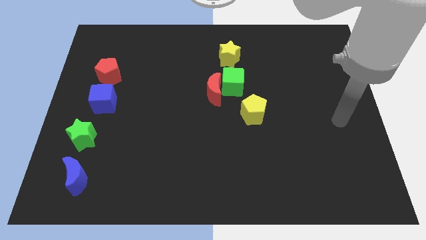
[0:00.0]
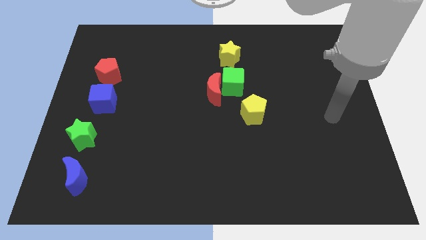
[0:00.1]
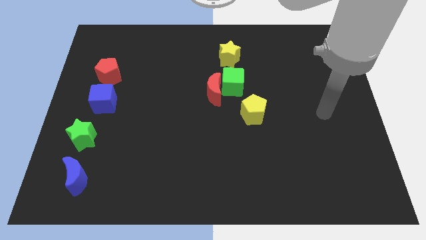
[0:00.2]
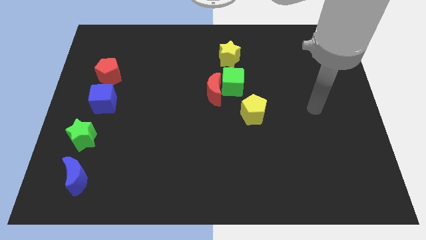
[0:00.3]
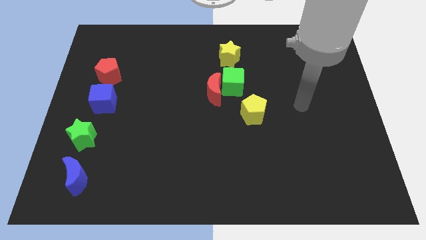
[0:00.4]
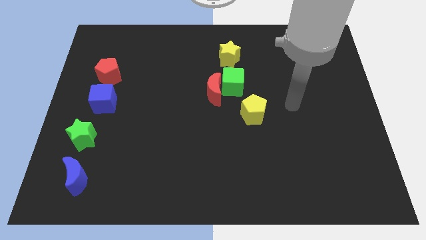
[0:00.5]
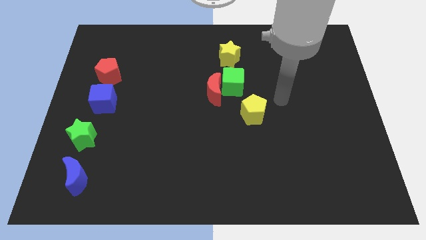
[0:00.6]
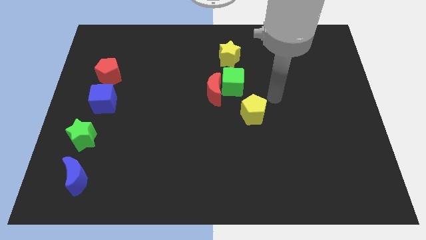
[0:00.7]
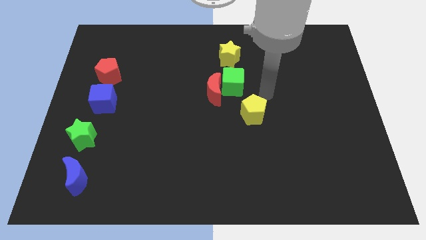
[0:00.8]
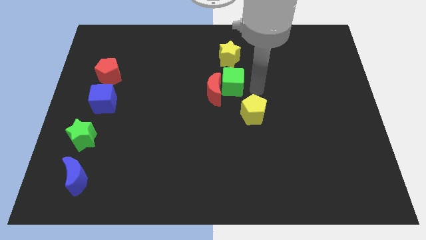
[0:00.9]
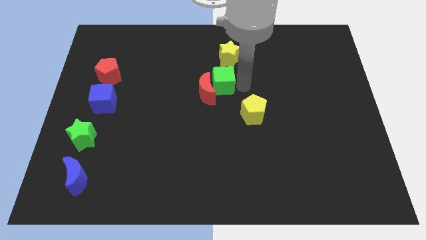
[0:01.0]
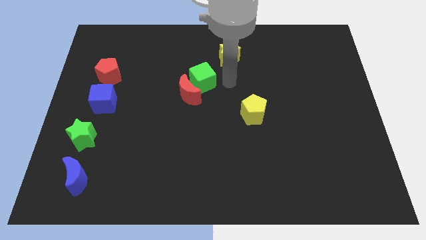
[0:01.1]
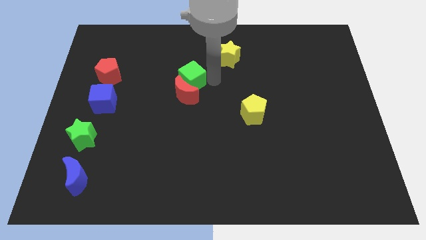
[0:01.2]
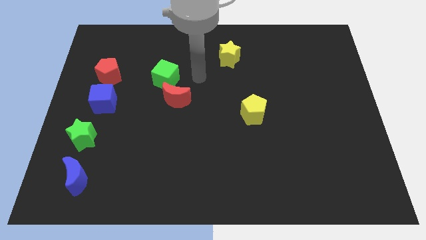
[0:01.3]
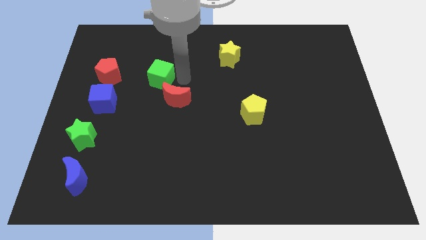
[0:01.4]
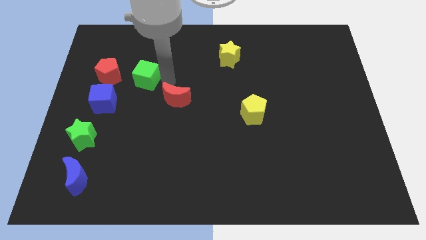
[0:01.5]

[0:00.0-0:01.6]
move the red moon away from the green cube

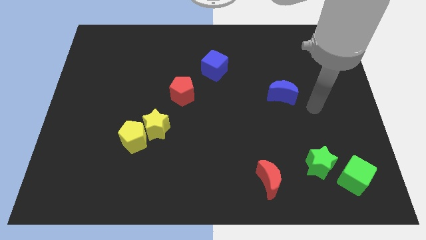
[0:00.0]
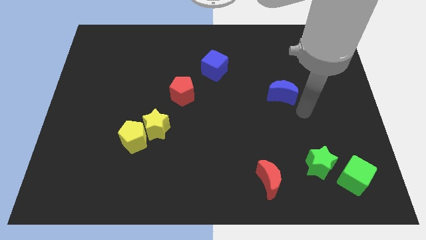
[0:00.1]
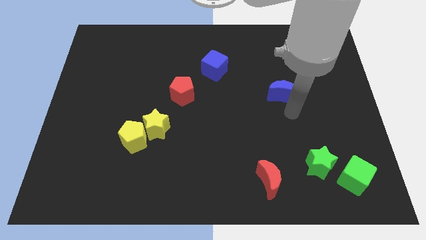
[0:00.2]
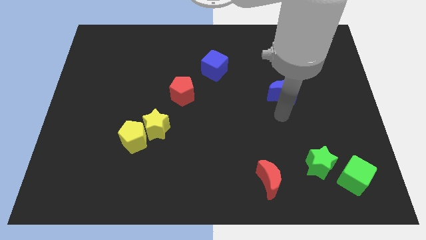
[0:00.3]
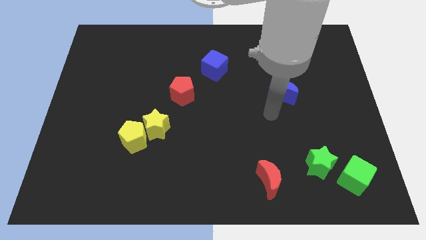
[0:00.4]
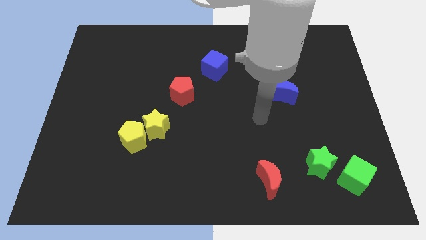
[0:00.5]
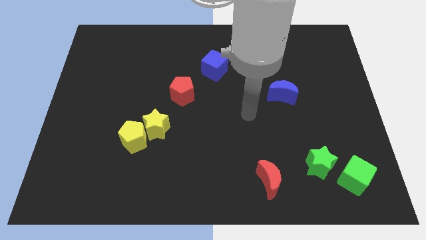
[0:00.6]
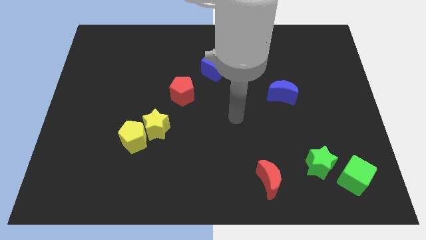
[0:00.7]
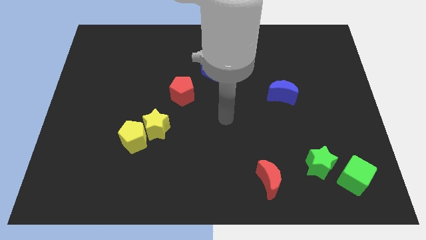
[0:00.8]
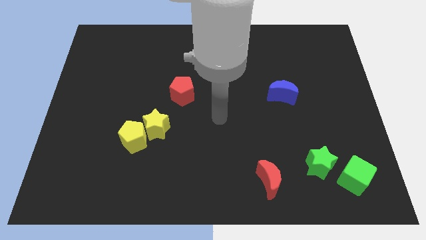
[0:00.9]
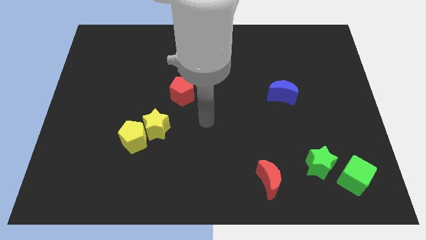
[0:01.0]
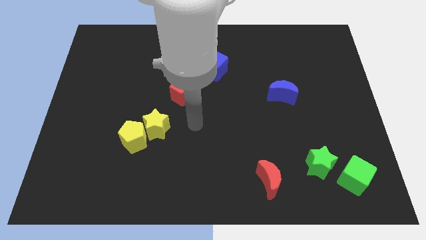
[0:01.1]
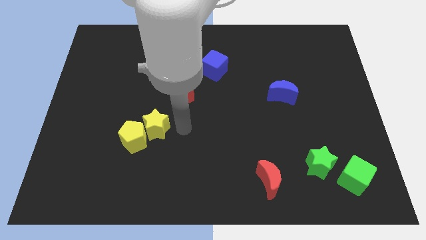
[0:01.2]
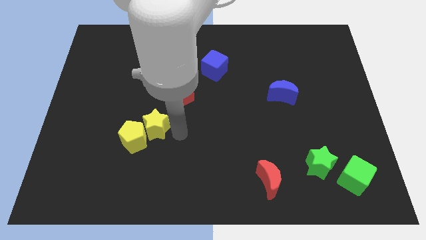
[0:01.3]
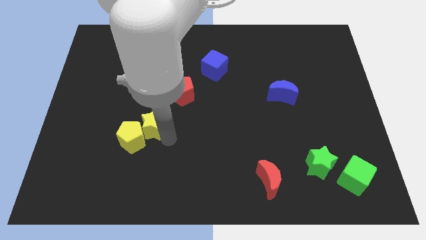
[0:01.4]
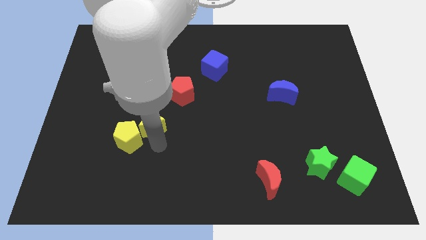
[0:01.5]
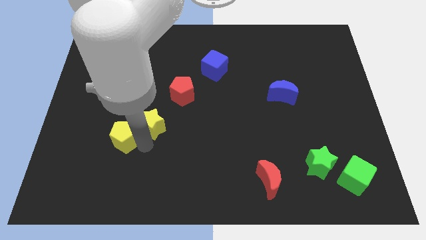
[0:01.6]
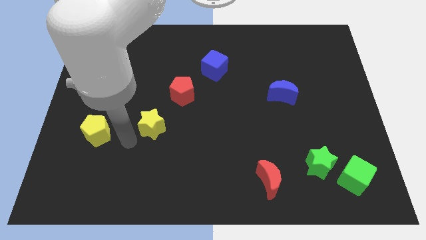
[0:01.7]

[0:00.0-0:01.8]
pull the yellow star apart from the yellow pentagon

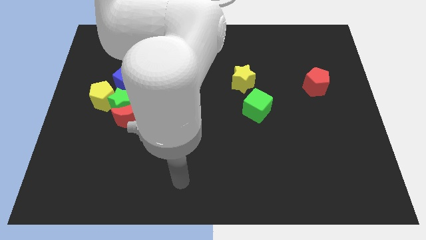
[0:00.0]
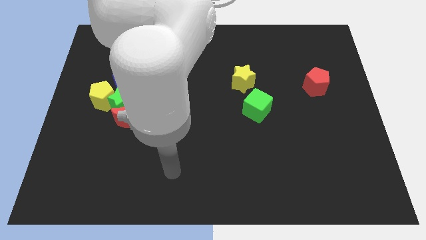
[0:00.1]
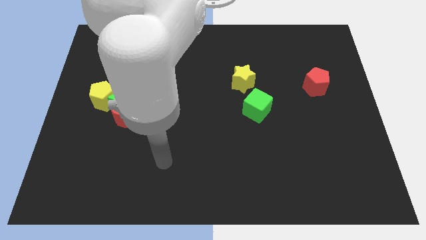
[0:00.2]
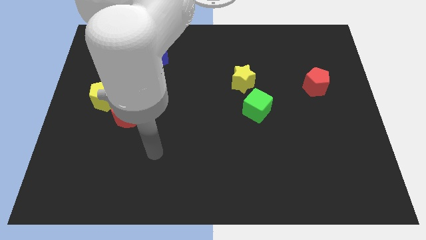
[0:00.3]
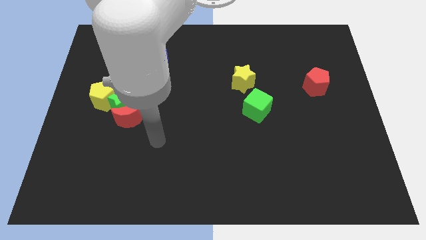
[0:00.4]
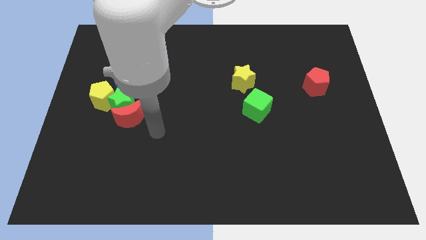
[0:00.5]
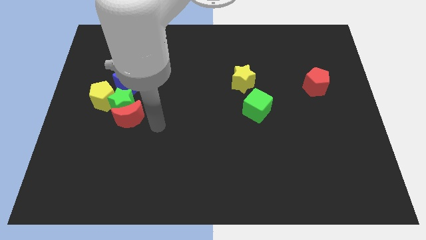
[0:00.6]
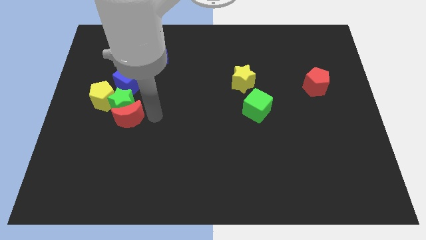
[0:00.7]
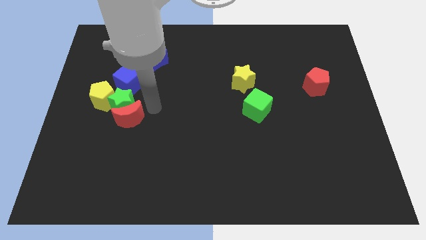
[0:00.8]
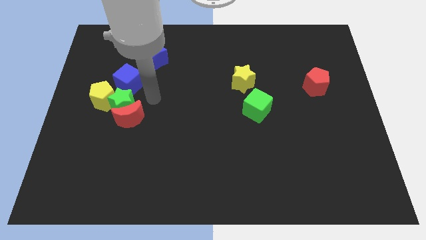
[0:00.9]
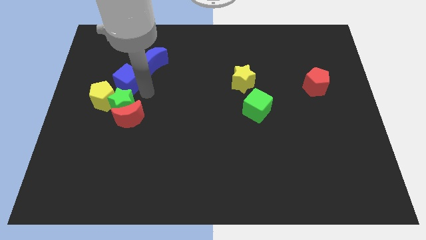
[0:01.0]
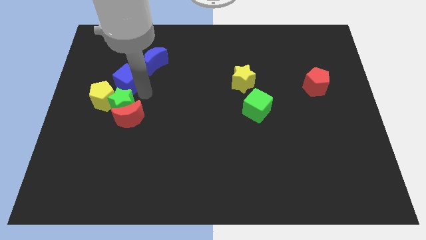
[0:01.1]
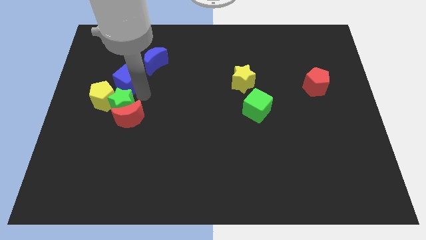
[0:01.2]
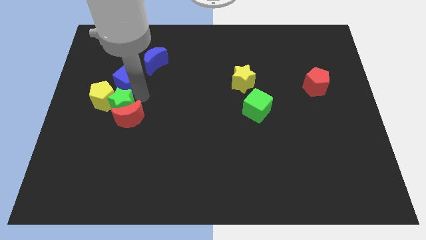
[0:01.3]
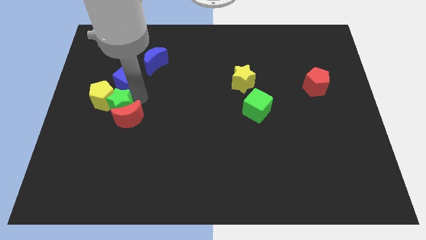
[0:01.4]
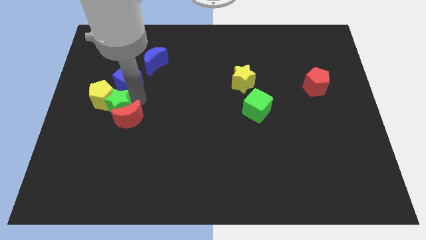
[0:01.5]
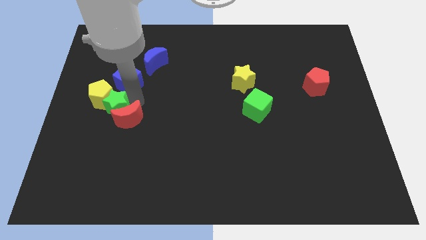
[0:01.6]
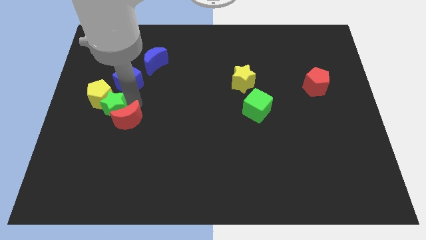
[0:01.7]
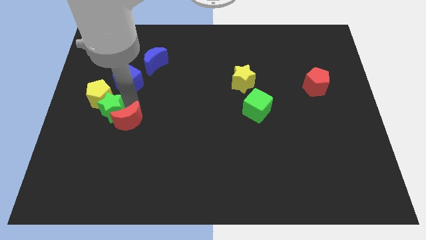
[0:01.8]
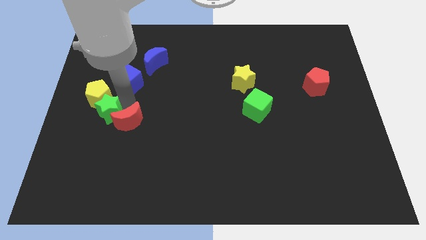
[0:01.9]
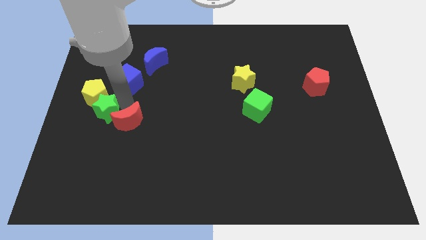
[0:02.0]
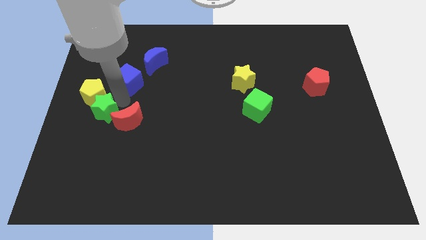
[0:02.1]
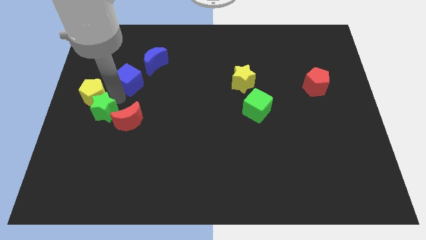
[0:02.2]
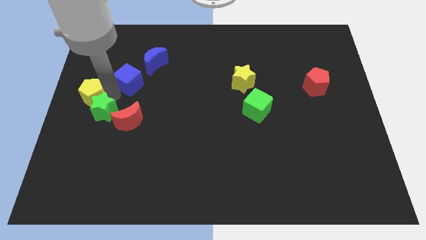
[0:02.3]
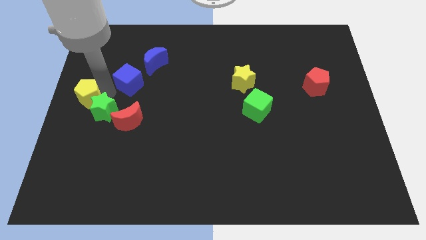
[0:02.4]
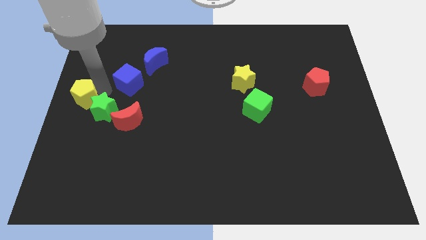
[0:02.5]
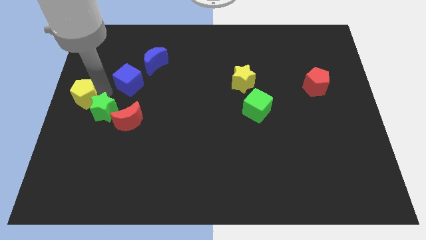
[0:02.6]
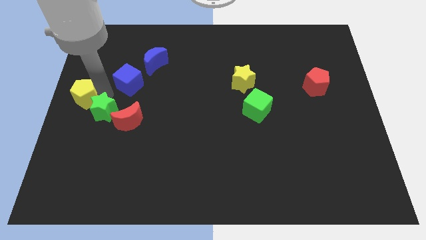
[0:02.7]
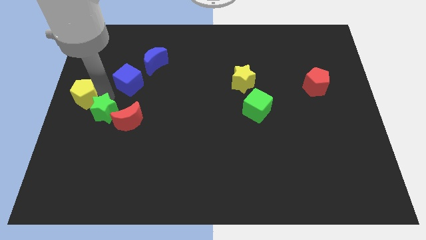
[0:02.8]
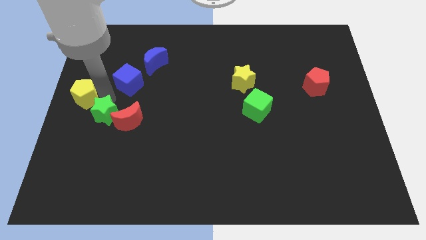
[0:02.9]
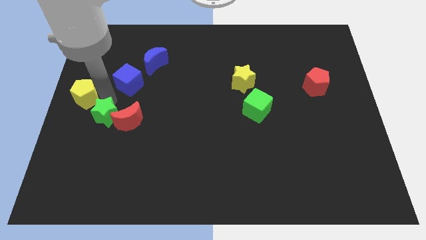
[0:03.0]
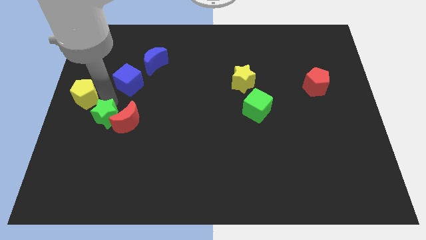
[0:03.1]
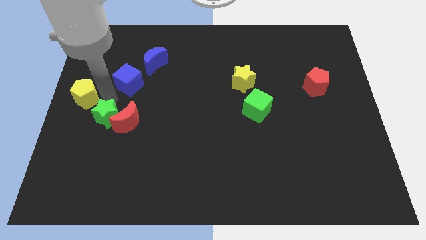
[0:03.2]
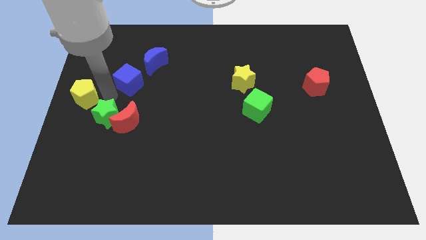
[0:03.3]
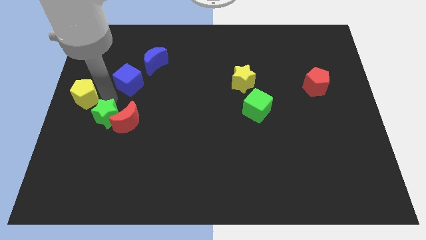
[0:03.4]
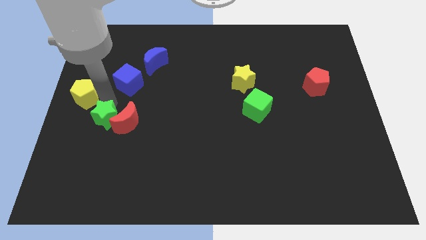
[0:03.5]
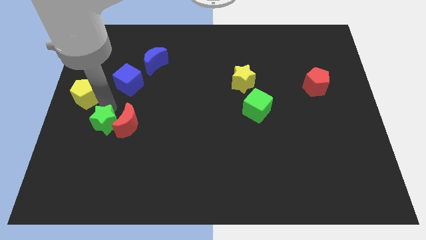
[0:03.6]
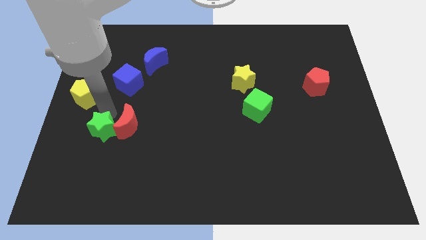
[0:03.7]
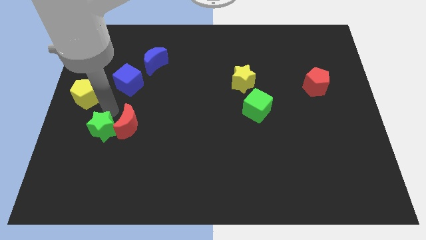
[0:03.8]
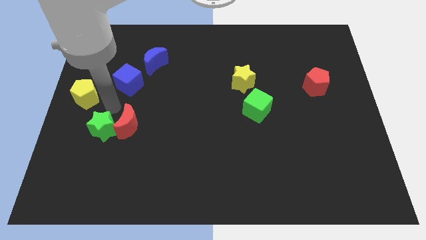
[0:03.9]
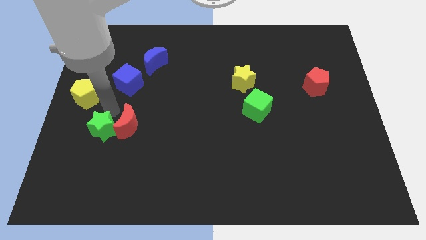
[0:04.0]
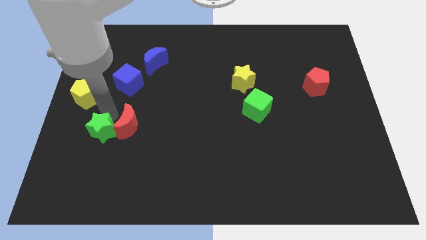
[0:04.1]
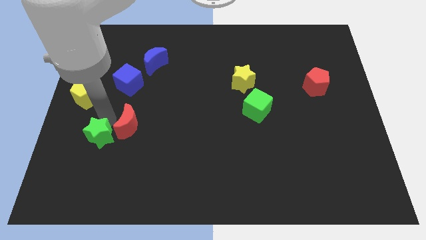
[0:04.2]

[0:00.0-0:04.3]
pull the green star apart from the group of blocks

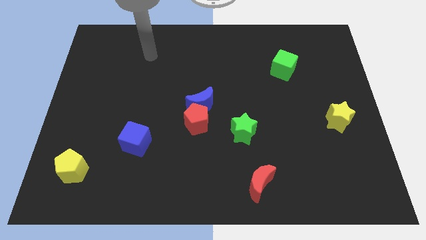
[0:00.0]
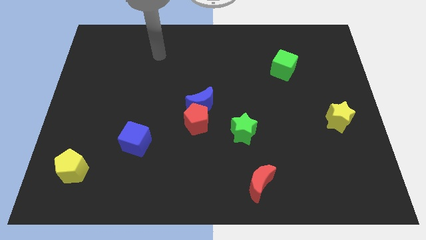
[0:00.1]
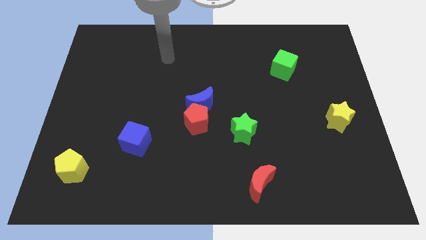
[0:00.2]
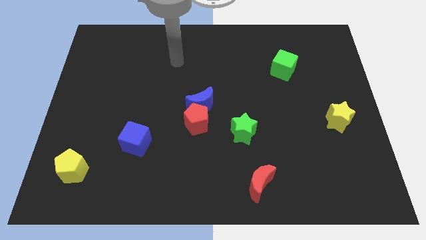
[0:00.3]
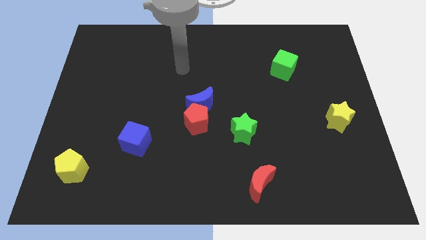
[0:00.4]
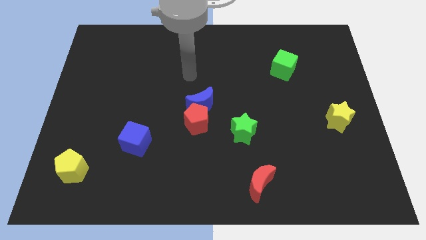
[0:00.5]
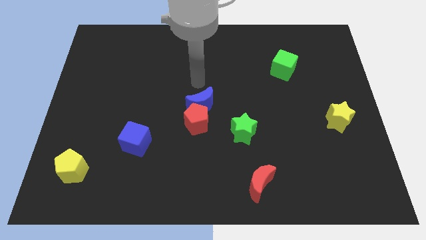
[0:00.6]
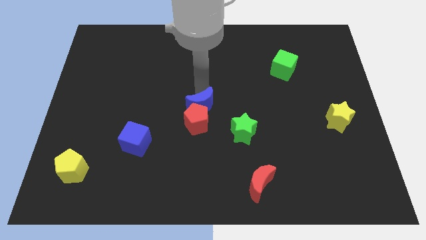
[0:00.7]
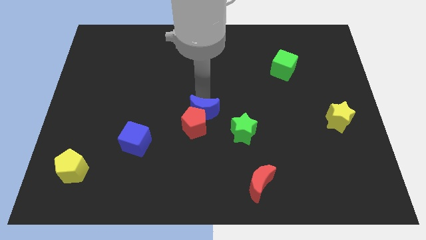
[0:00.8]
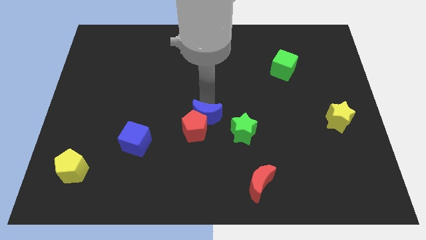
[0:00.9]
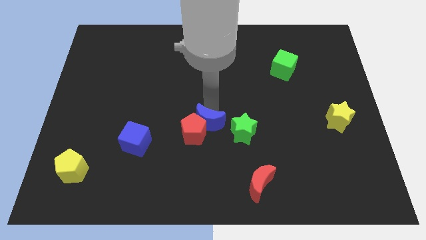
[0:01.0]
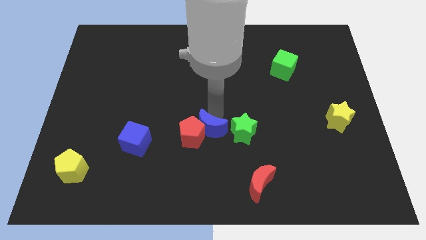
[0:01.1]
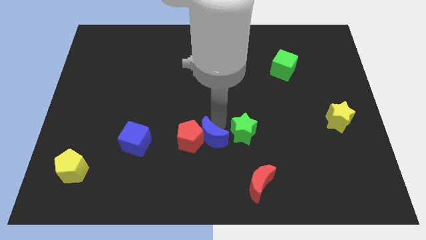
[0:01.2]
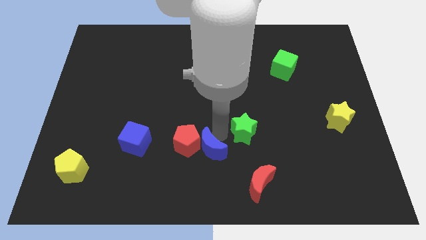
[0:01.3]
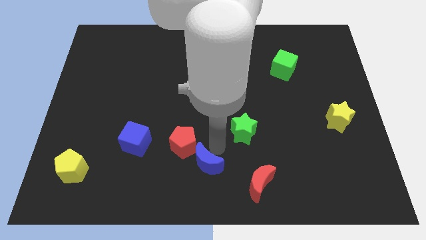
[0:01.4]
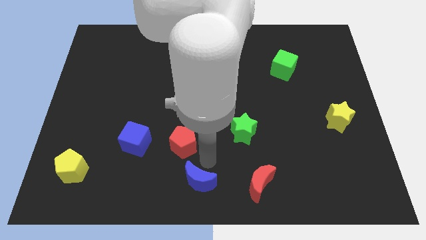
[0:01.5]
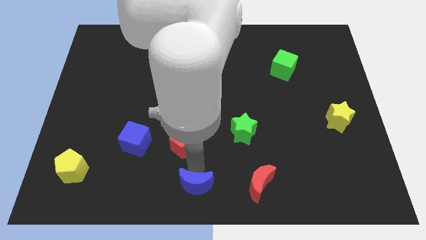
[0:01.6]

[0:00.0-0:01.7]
separate the red pentagon from the blue moon
